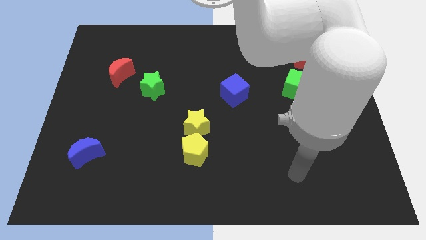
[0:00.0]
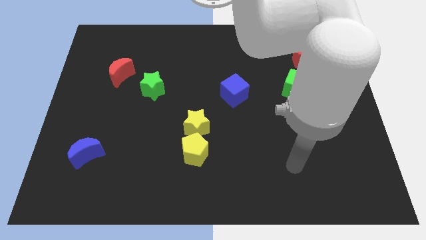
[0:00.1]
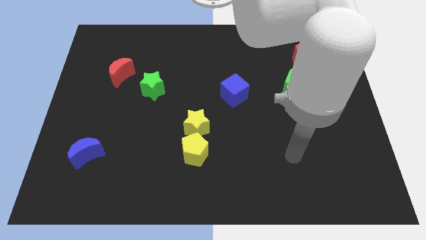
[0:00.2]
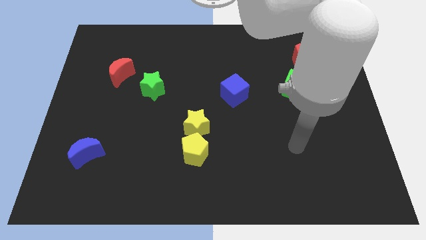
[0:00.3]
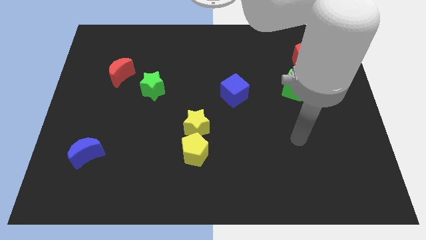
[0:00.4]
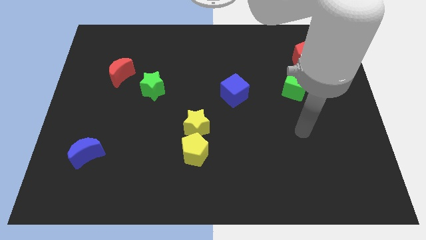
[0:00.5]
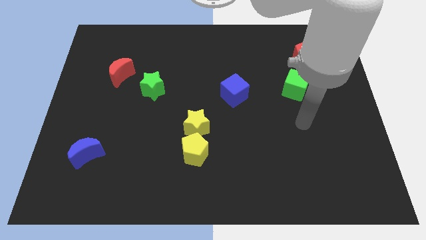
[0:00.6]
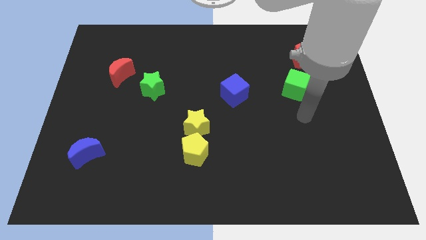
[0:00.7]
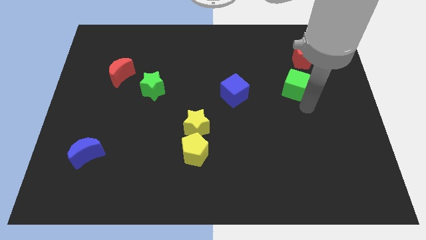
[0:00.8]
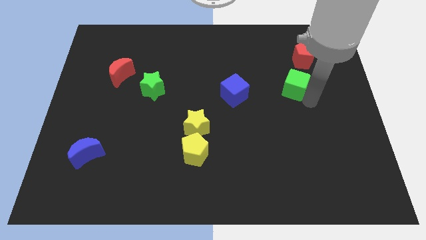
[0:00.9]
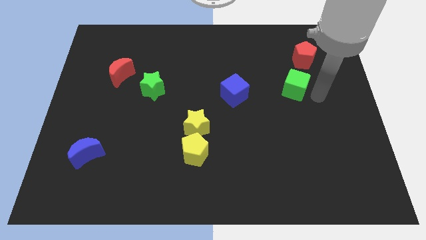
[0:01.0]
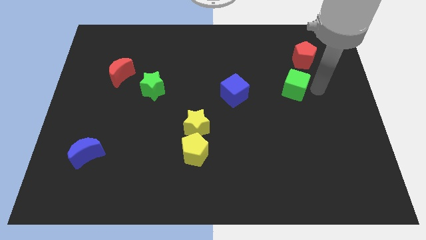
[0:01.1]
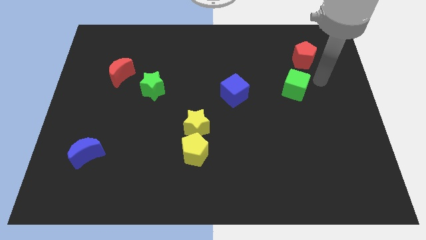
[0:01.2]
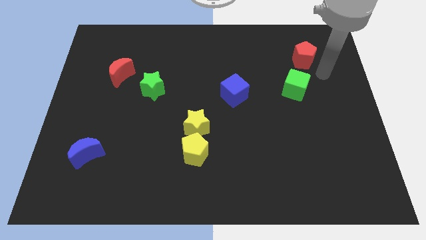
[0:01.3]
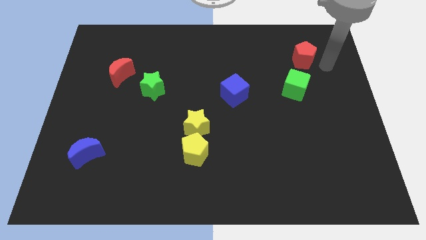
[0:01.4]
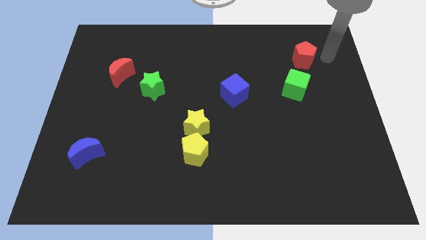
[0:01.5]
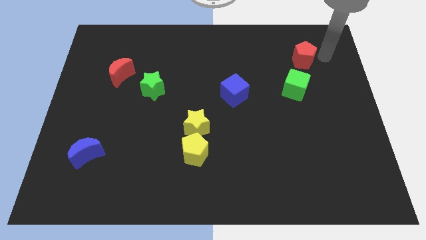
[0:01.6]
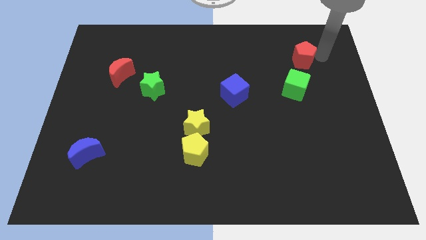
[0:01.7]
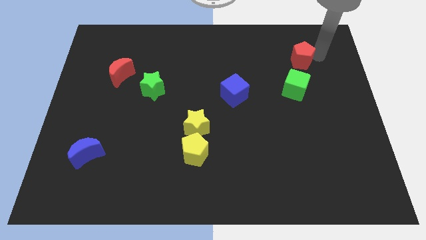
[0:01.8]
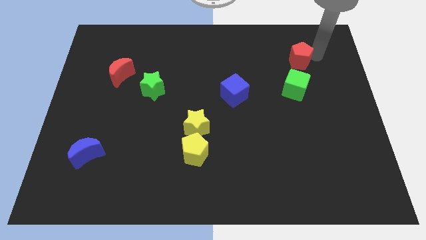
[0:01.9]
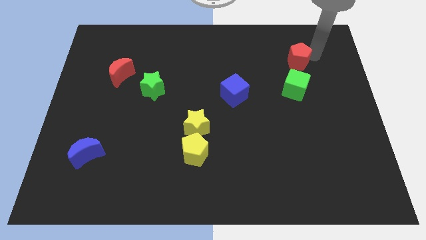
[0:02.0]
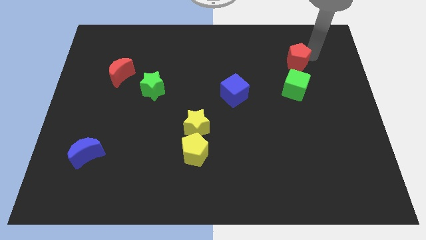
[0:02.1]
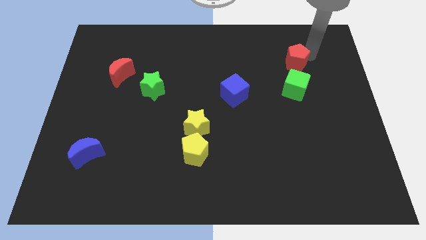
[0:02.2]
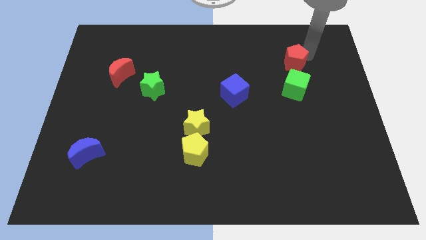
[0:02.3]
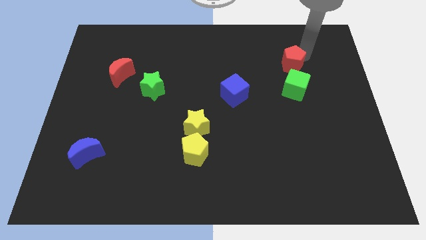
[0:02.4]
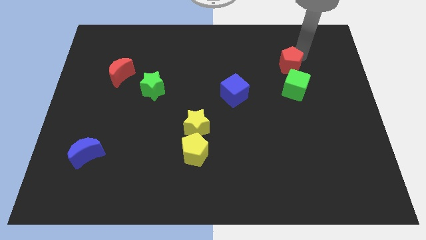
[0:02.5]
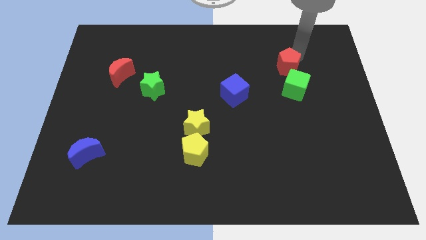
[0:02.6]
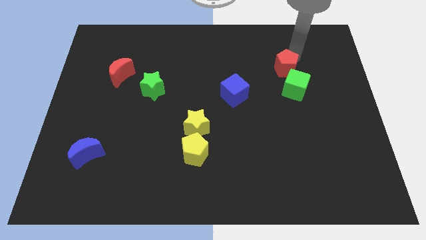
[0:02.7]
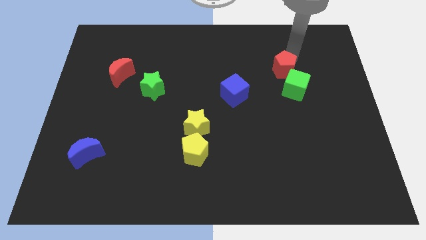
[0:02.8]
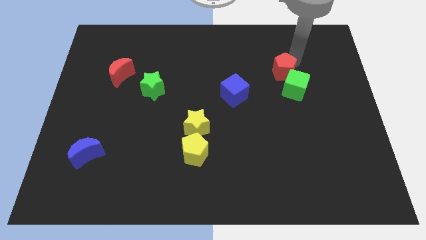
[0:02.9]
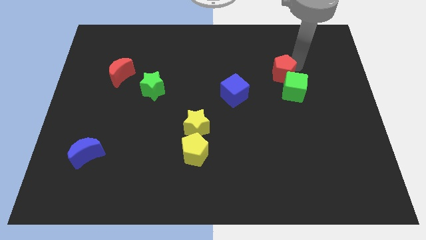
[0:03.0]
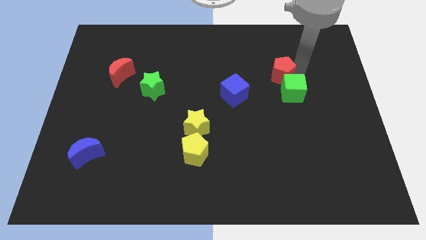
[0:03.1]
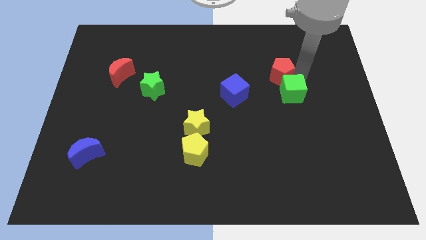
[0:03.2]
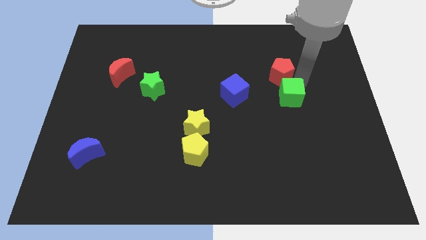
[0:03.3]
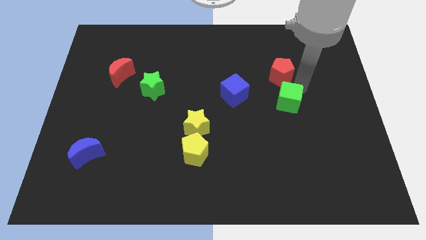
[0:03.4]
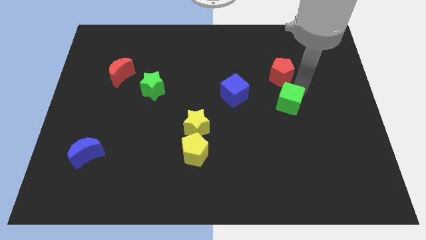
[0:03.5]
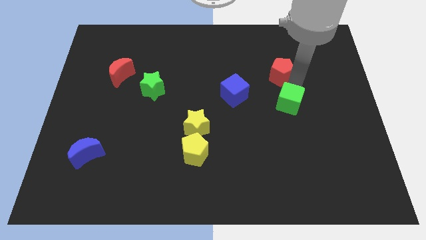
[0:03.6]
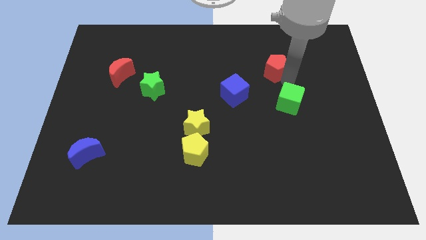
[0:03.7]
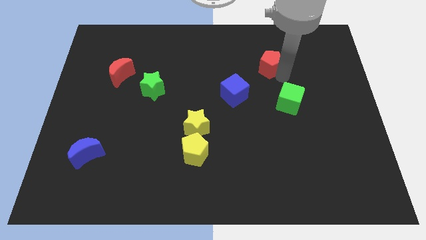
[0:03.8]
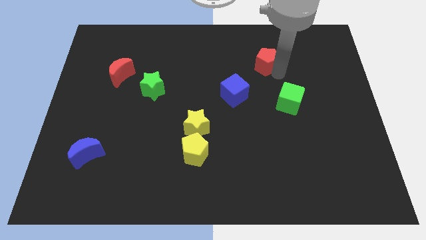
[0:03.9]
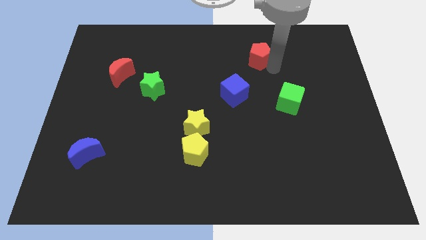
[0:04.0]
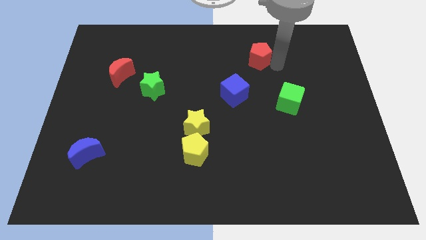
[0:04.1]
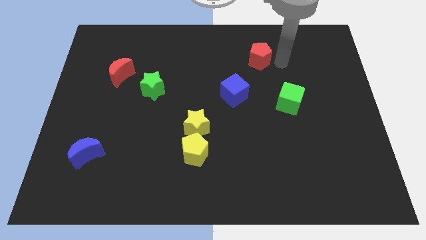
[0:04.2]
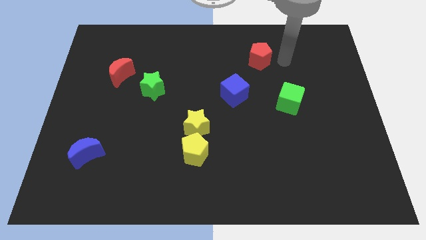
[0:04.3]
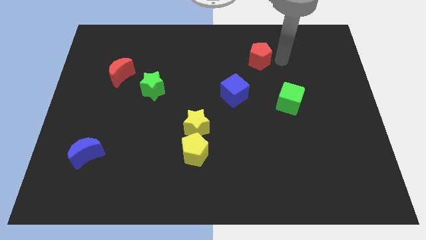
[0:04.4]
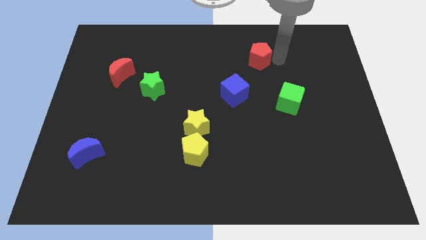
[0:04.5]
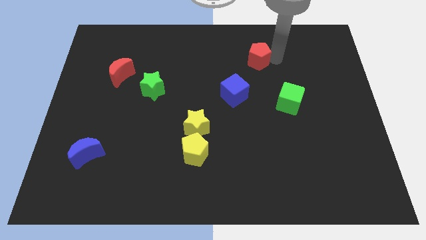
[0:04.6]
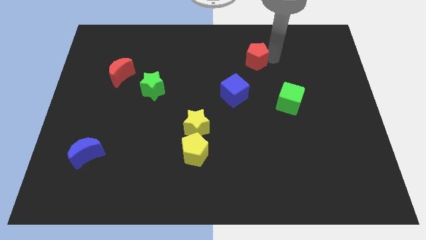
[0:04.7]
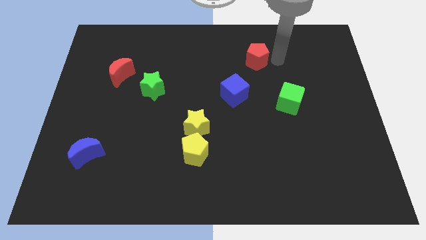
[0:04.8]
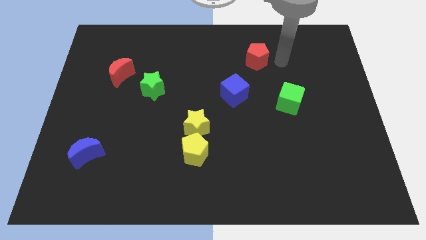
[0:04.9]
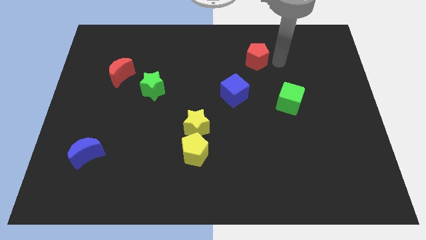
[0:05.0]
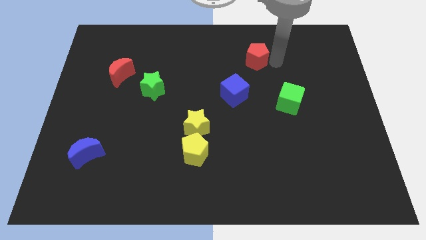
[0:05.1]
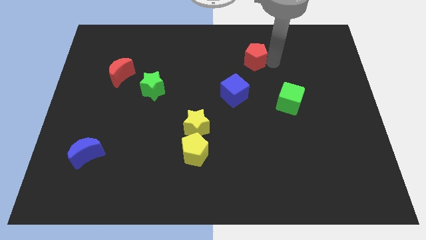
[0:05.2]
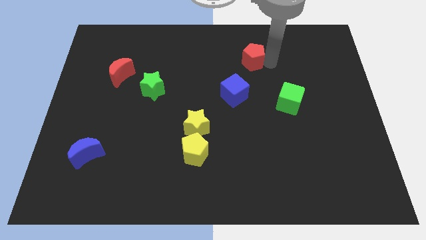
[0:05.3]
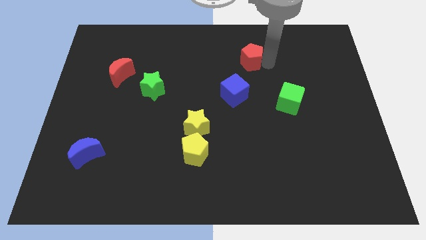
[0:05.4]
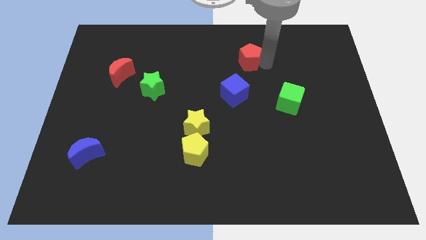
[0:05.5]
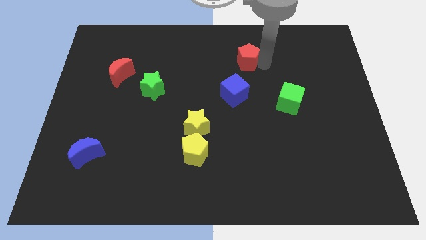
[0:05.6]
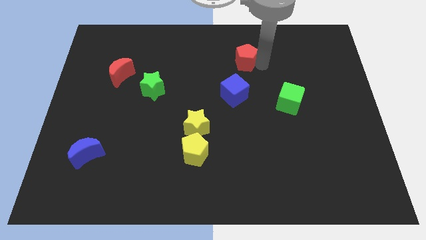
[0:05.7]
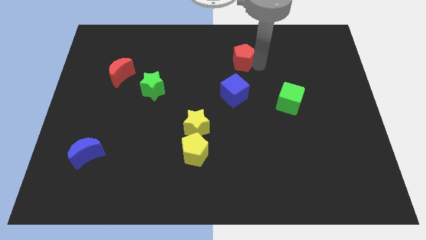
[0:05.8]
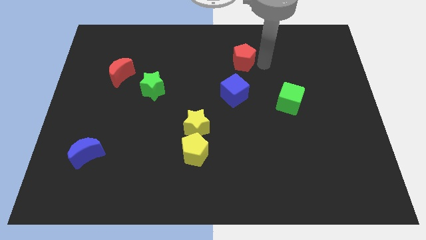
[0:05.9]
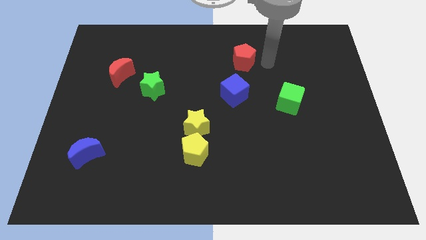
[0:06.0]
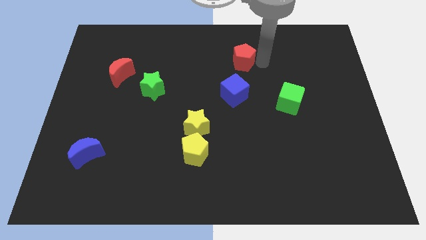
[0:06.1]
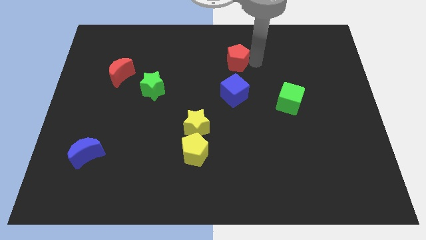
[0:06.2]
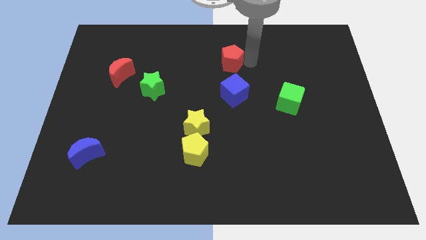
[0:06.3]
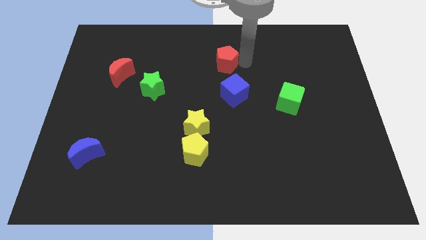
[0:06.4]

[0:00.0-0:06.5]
move the red pentagon to the left

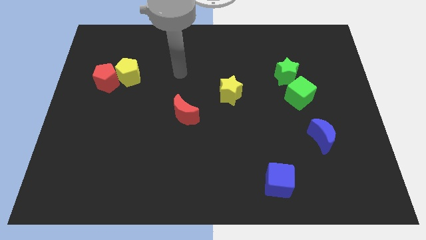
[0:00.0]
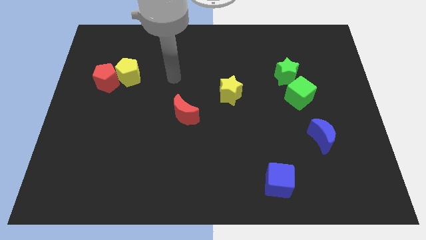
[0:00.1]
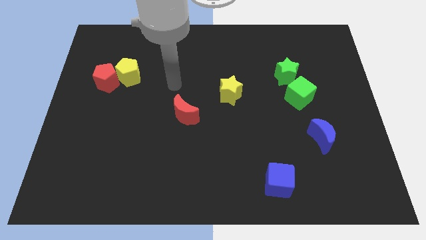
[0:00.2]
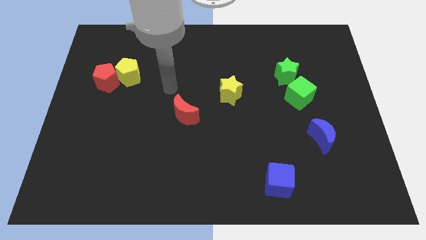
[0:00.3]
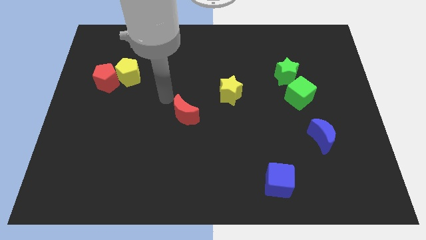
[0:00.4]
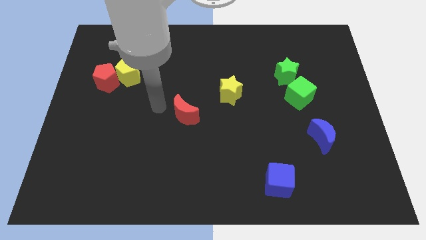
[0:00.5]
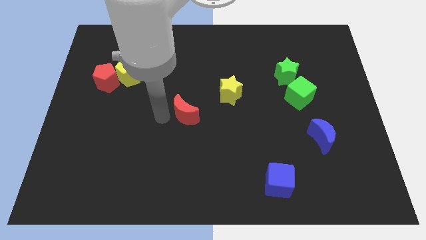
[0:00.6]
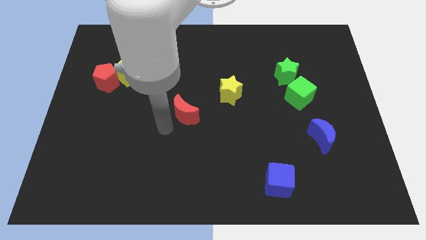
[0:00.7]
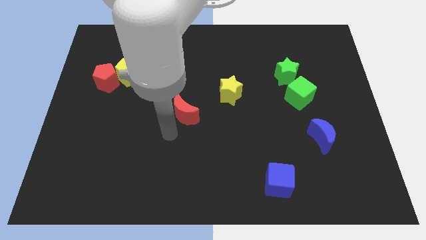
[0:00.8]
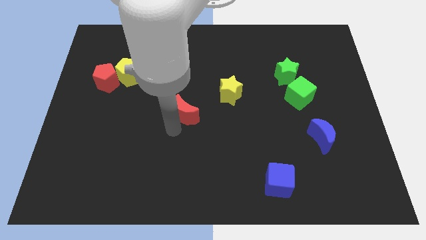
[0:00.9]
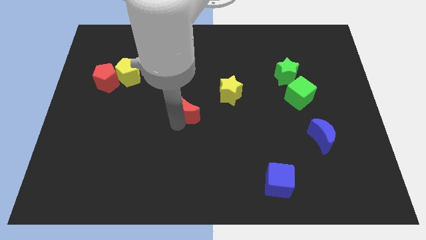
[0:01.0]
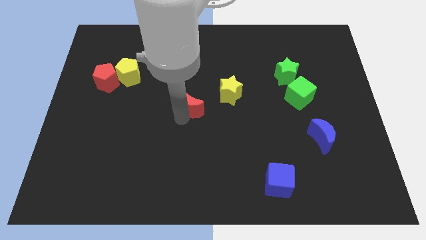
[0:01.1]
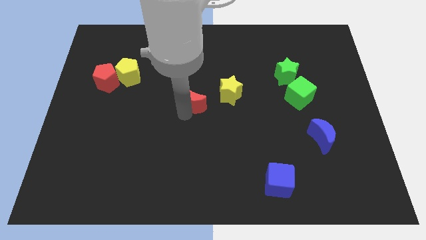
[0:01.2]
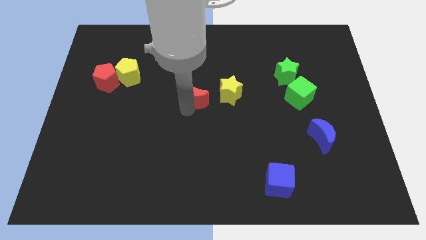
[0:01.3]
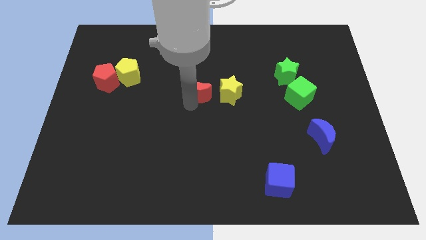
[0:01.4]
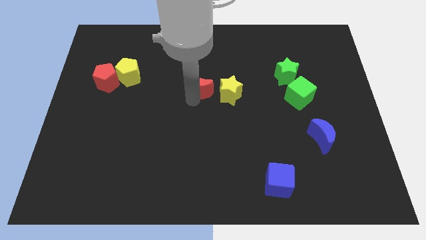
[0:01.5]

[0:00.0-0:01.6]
slightly push the red moon diagonally upwards and right
